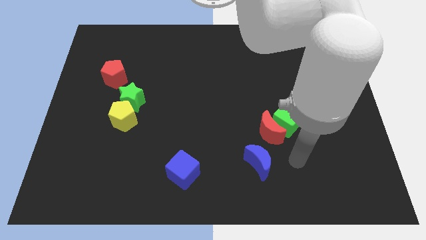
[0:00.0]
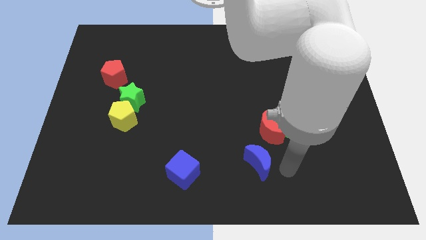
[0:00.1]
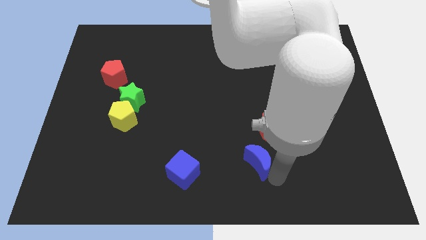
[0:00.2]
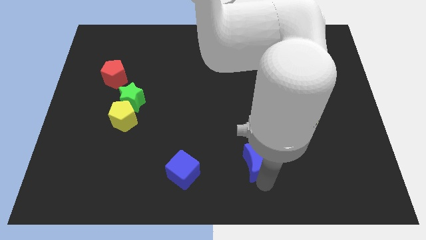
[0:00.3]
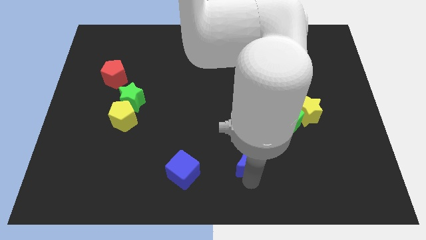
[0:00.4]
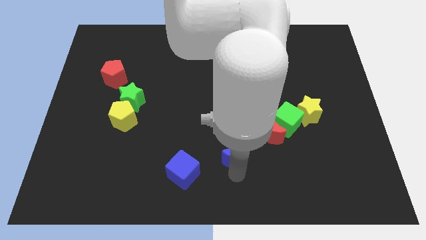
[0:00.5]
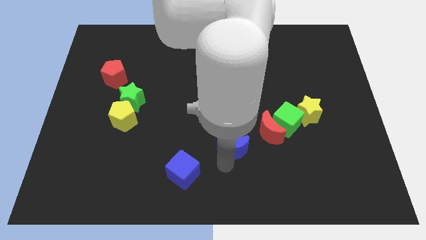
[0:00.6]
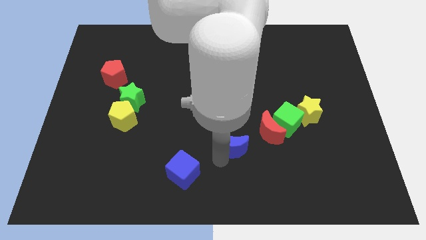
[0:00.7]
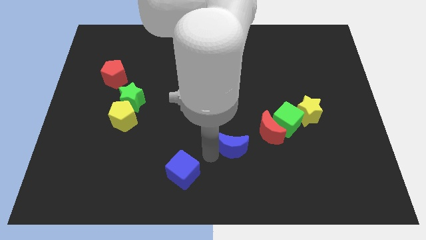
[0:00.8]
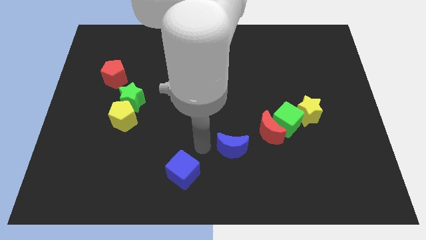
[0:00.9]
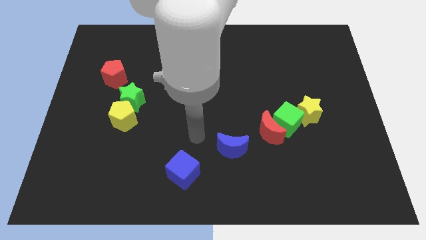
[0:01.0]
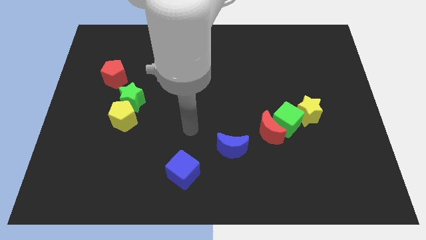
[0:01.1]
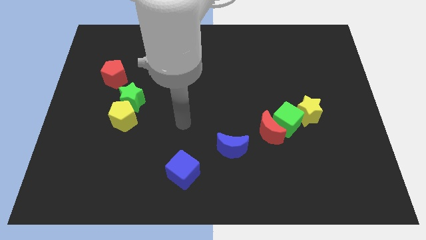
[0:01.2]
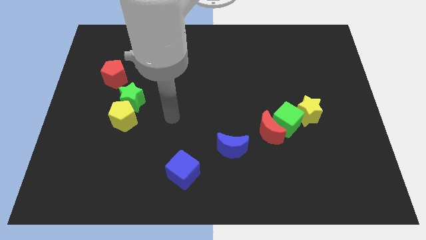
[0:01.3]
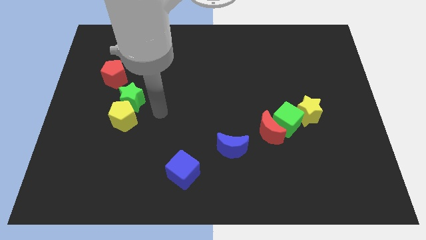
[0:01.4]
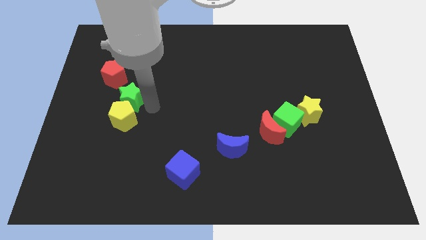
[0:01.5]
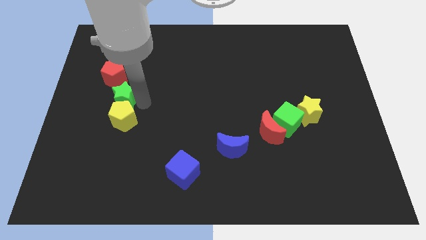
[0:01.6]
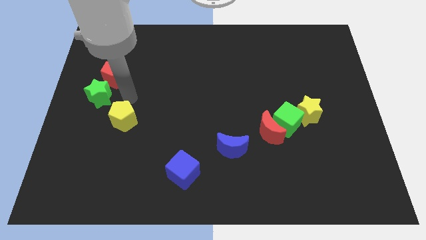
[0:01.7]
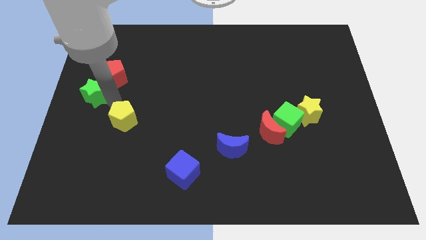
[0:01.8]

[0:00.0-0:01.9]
separate the yellow pentagon from the green star

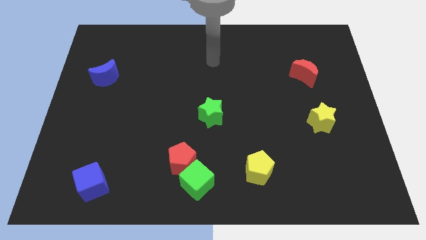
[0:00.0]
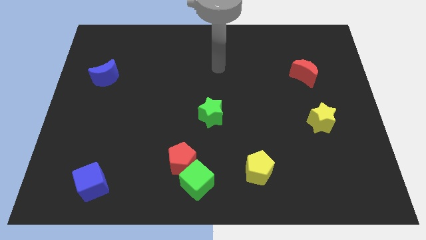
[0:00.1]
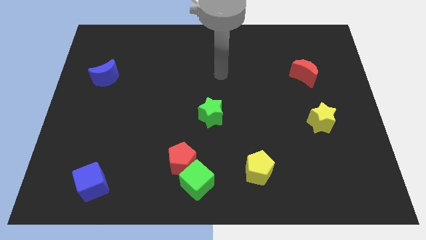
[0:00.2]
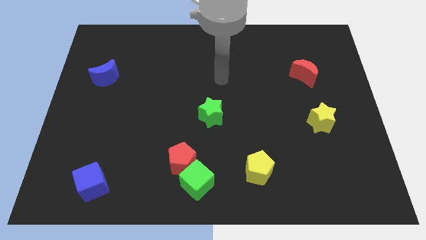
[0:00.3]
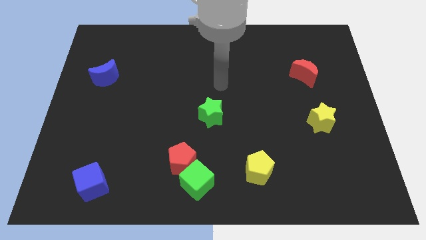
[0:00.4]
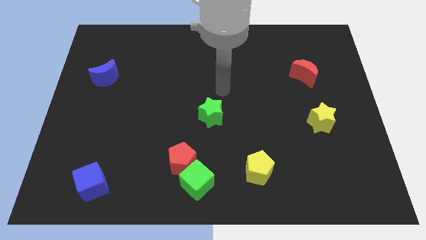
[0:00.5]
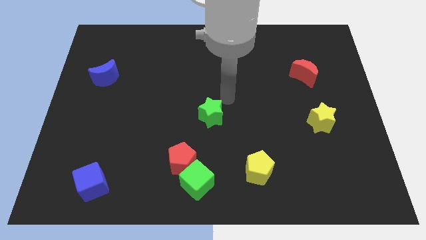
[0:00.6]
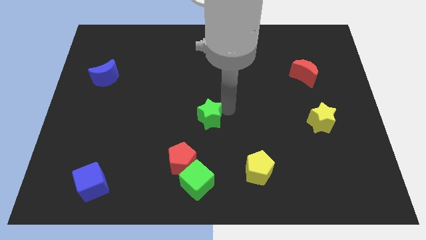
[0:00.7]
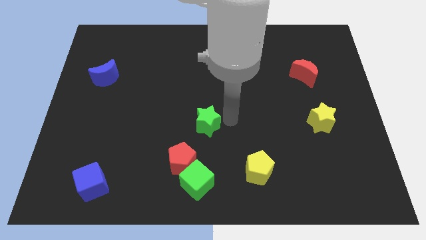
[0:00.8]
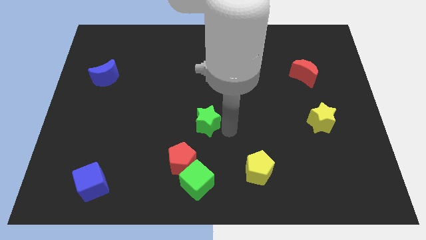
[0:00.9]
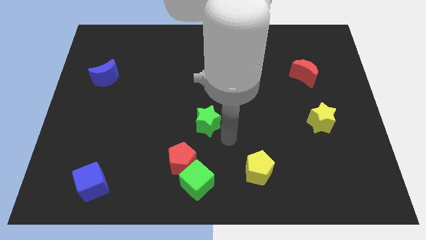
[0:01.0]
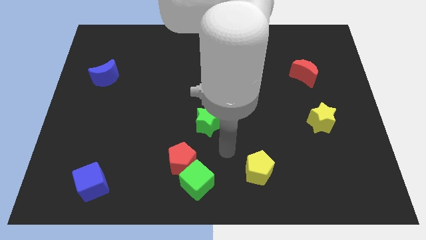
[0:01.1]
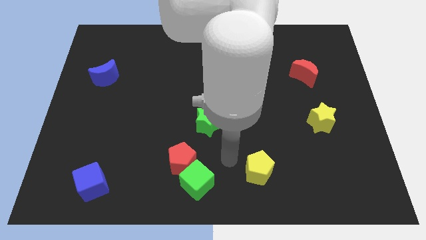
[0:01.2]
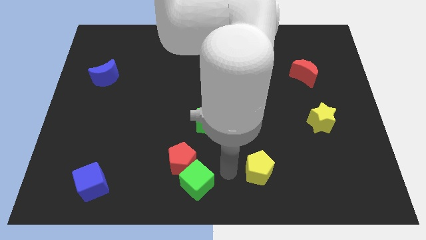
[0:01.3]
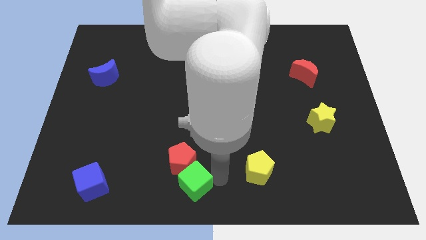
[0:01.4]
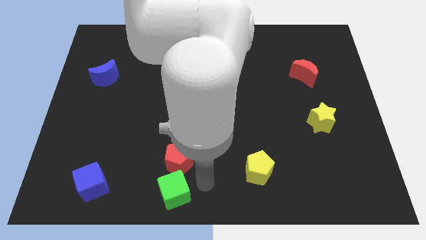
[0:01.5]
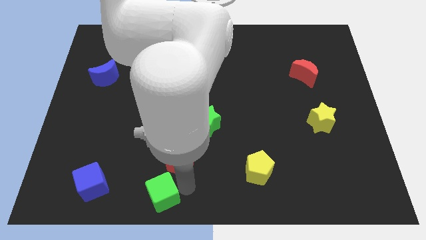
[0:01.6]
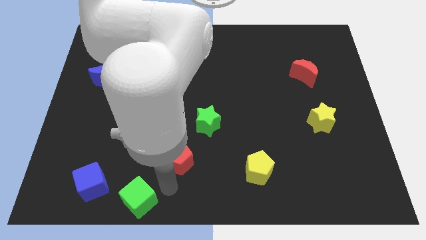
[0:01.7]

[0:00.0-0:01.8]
move the red pentagon away from the green cube

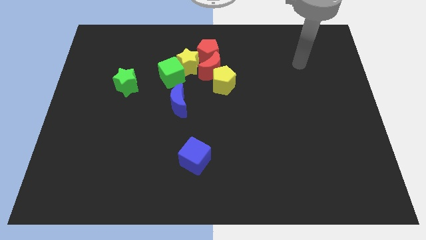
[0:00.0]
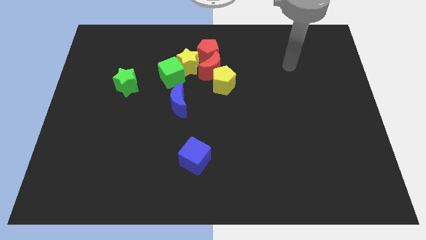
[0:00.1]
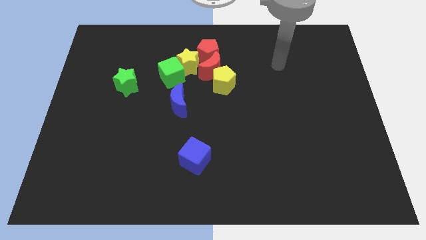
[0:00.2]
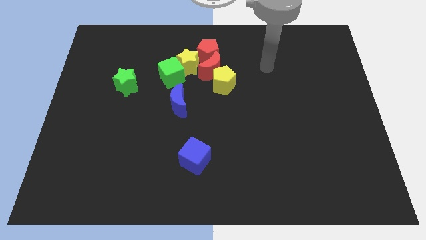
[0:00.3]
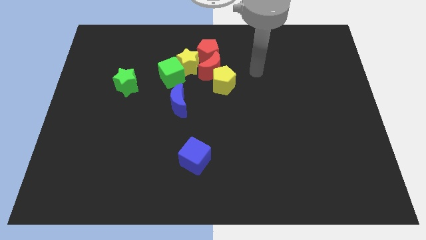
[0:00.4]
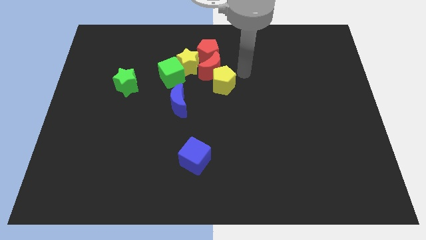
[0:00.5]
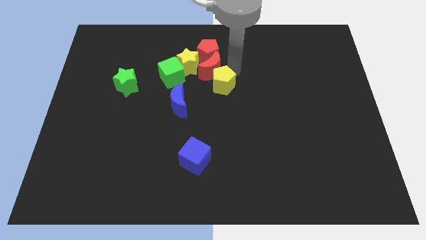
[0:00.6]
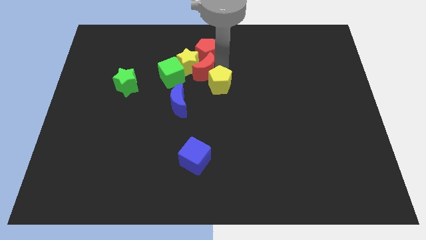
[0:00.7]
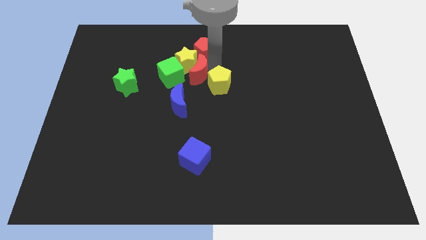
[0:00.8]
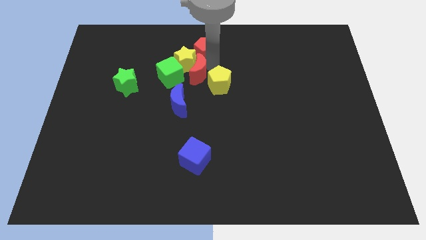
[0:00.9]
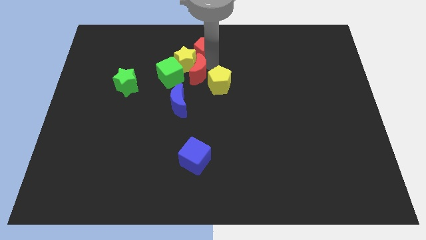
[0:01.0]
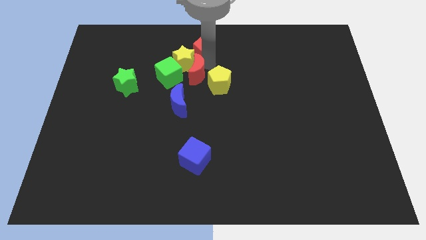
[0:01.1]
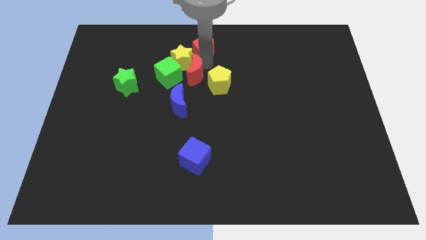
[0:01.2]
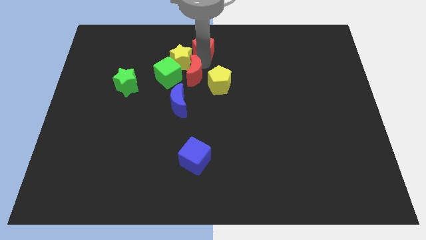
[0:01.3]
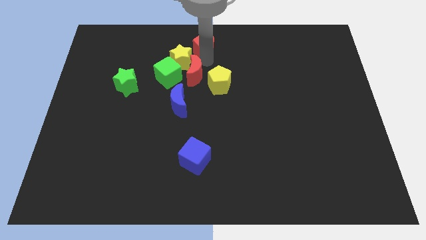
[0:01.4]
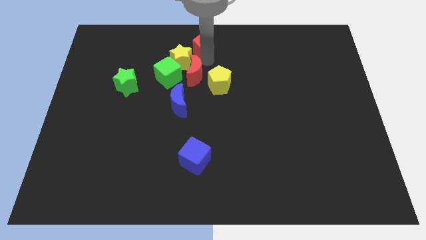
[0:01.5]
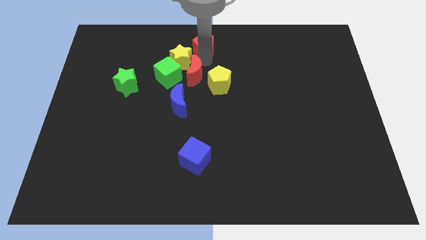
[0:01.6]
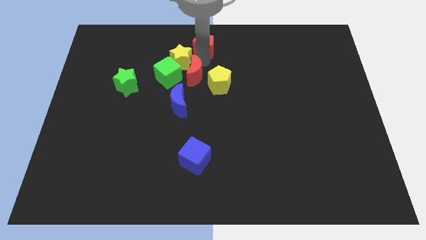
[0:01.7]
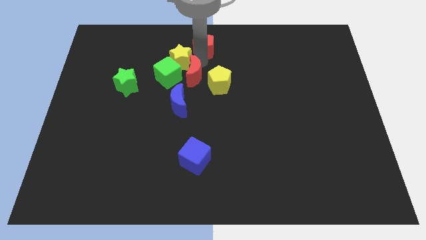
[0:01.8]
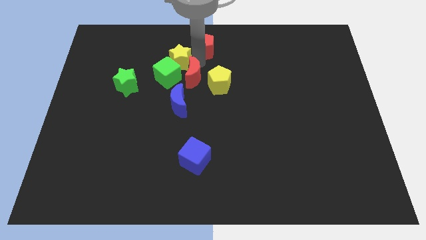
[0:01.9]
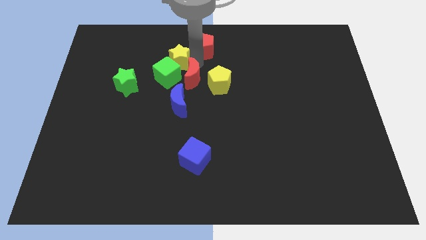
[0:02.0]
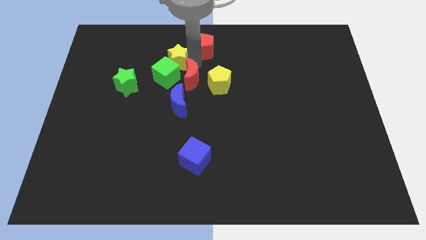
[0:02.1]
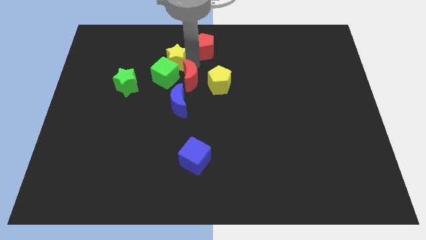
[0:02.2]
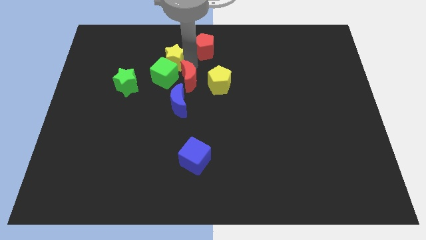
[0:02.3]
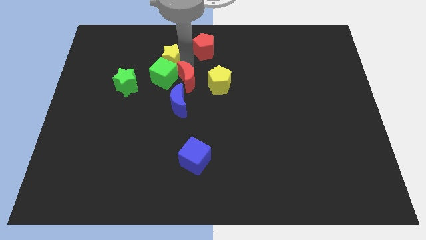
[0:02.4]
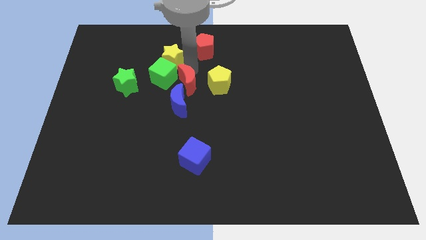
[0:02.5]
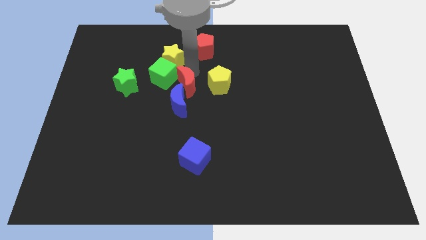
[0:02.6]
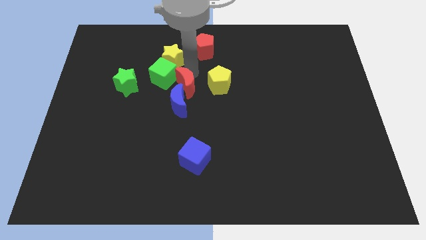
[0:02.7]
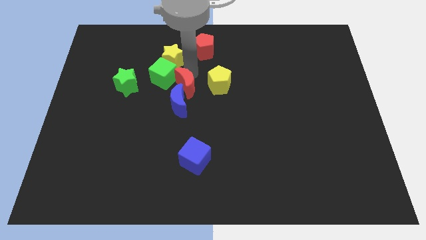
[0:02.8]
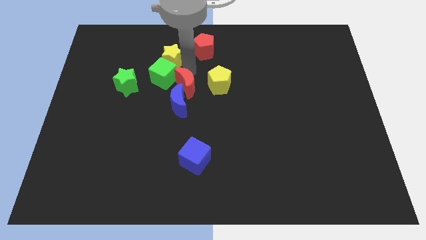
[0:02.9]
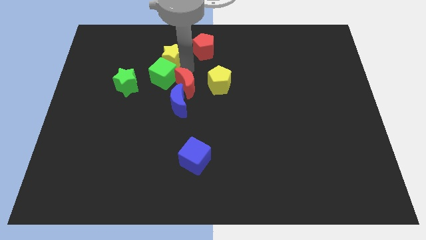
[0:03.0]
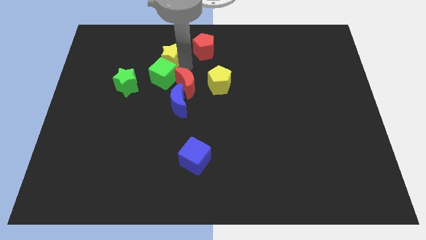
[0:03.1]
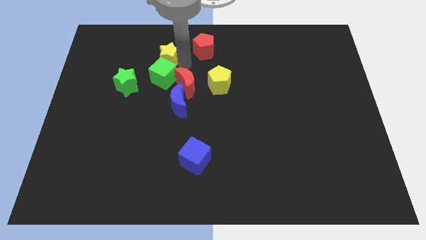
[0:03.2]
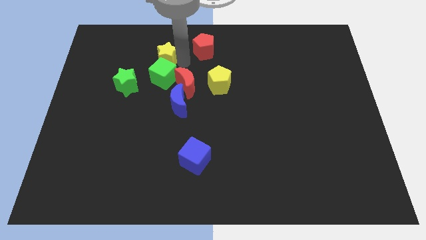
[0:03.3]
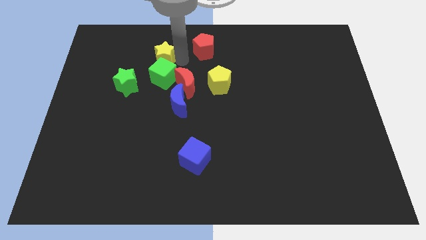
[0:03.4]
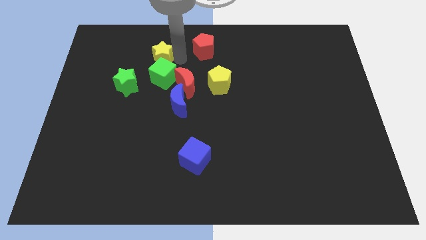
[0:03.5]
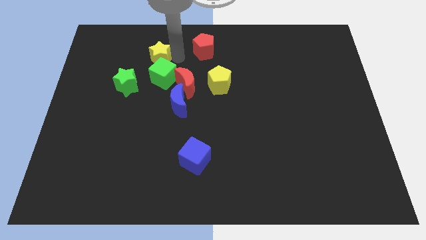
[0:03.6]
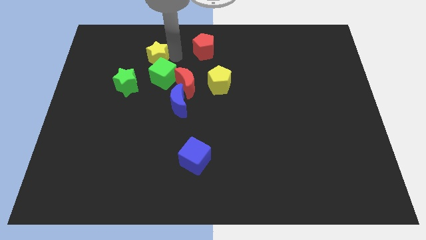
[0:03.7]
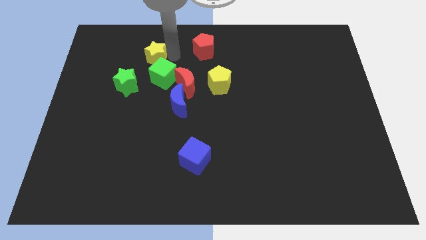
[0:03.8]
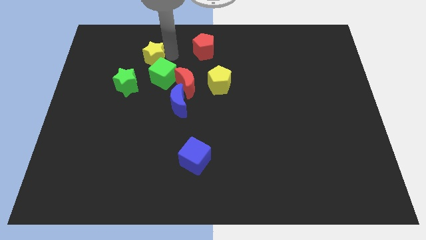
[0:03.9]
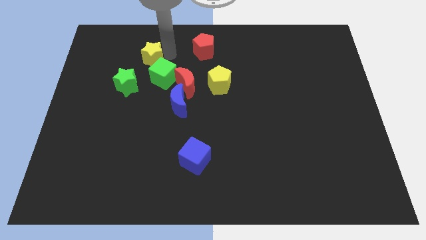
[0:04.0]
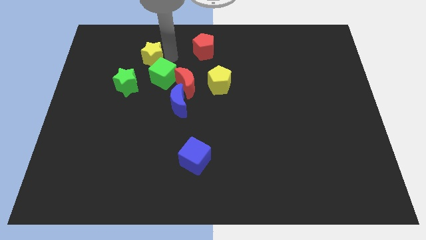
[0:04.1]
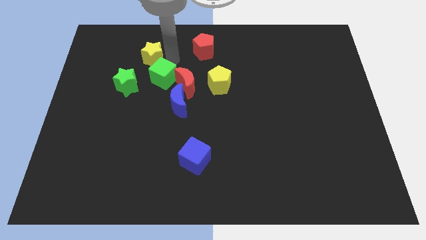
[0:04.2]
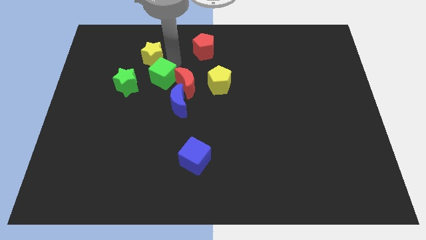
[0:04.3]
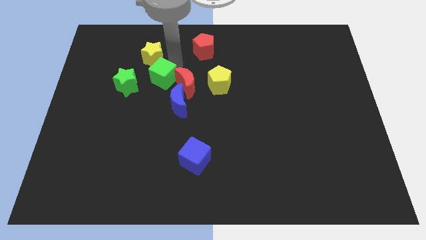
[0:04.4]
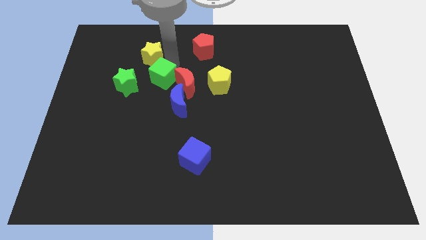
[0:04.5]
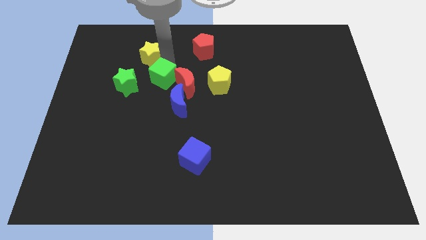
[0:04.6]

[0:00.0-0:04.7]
move the yellow star away from the green cube, red moon, and red pentagon

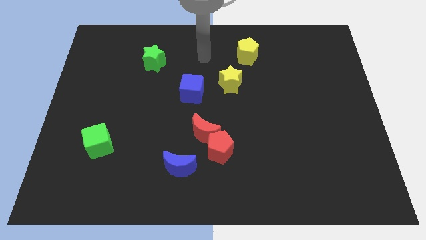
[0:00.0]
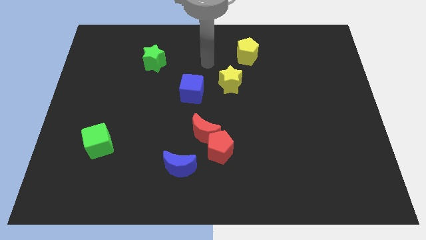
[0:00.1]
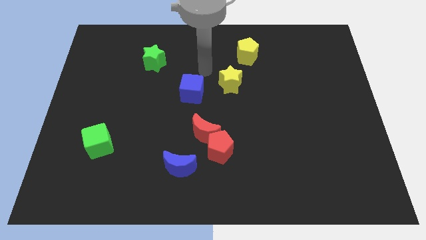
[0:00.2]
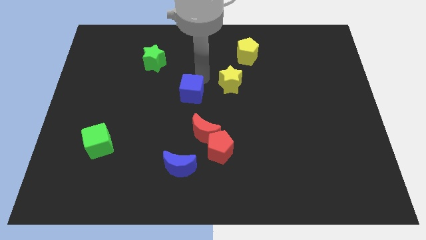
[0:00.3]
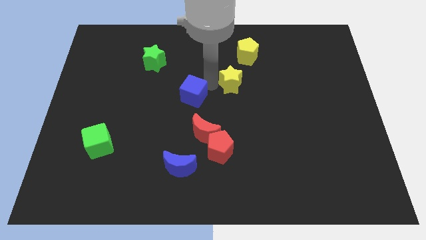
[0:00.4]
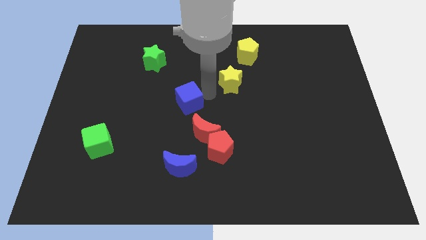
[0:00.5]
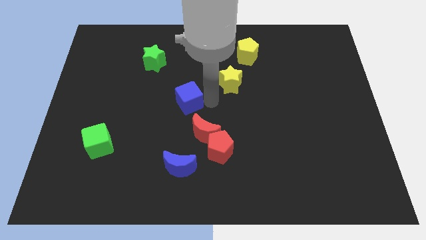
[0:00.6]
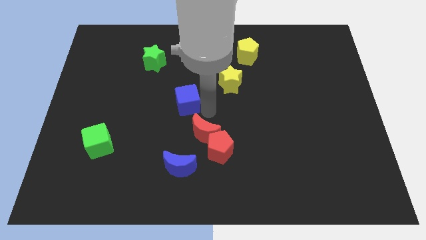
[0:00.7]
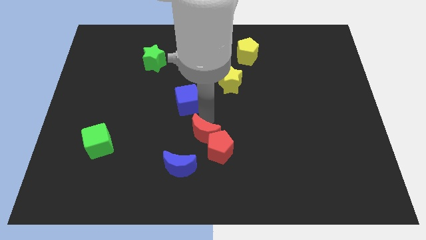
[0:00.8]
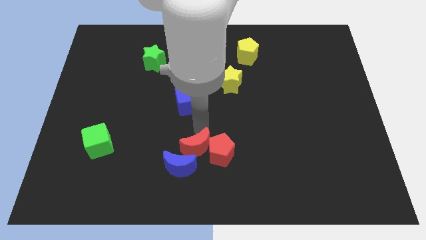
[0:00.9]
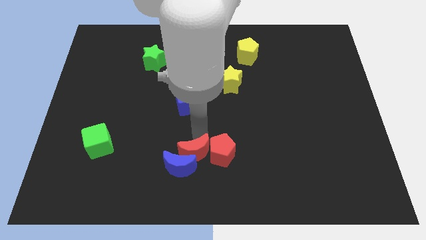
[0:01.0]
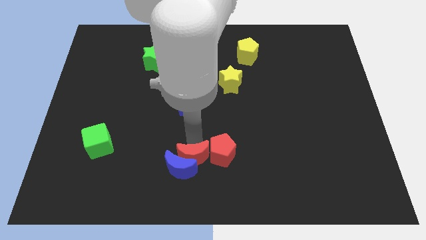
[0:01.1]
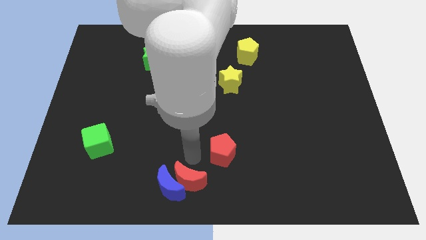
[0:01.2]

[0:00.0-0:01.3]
move the red pentagon away from the red moon and blue moon
